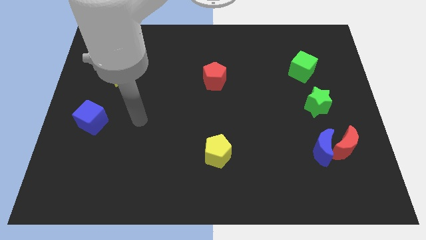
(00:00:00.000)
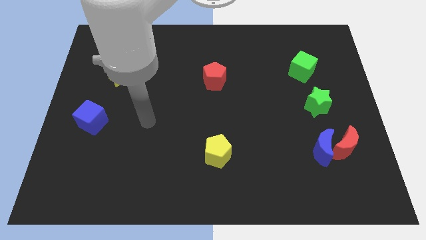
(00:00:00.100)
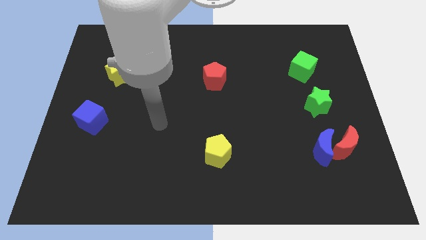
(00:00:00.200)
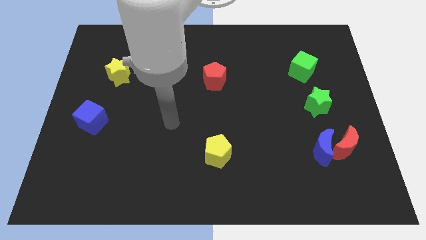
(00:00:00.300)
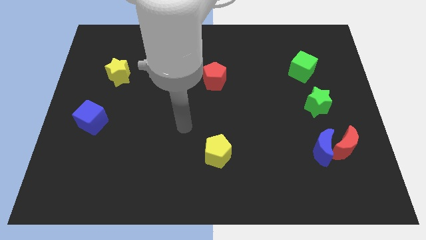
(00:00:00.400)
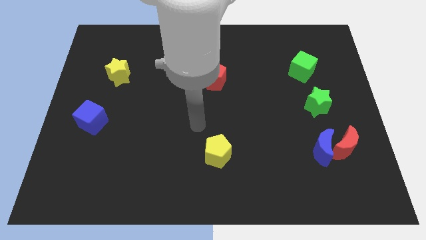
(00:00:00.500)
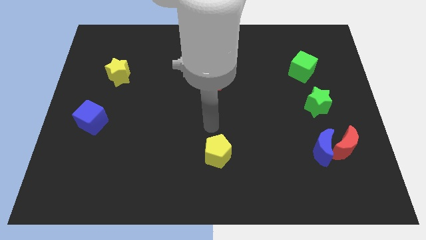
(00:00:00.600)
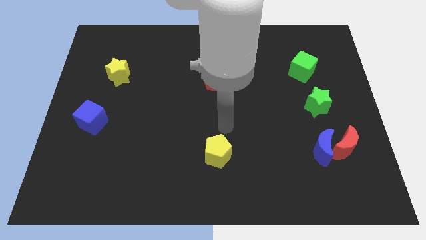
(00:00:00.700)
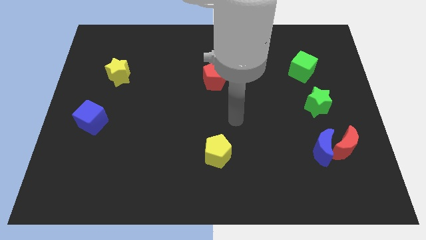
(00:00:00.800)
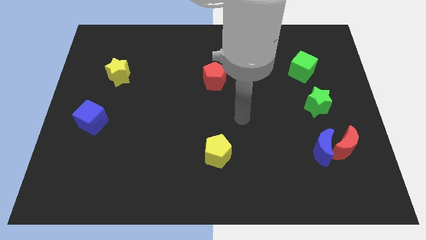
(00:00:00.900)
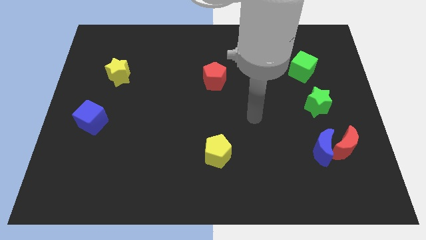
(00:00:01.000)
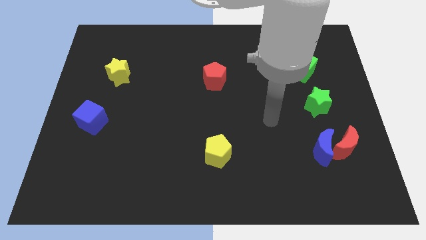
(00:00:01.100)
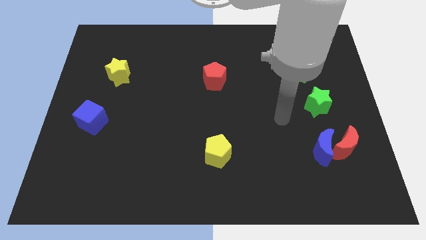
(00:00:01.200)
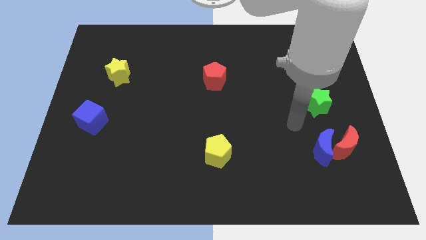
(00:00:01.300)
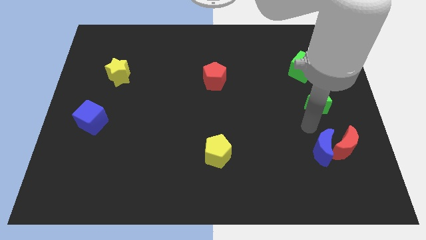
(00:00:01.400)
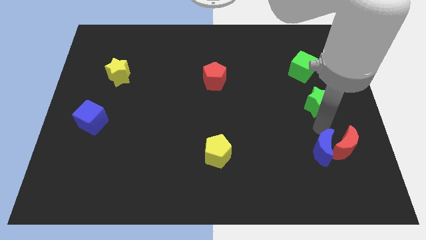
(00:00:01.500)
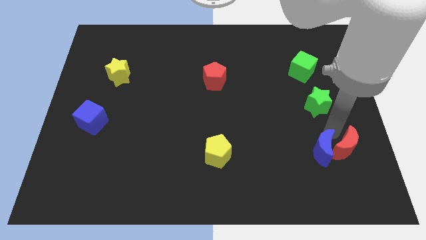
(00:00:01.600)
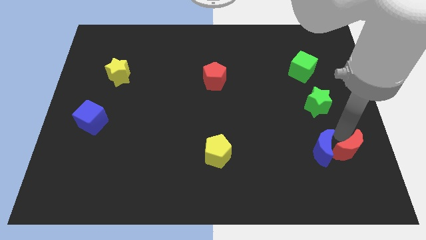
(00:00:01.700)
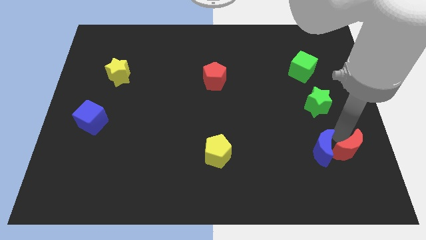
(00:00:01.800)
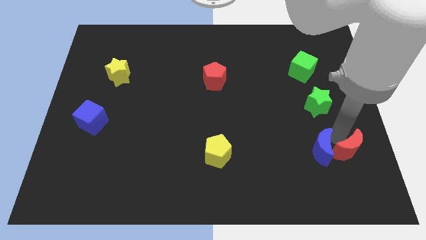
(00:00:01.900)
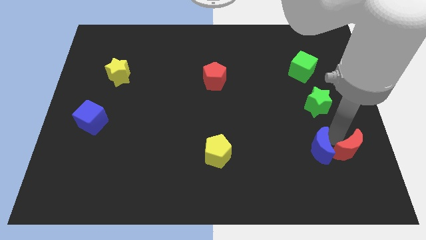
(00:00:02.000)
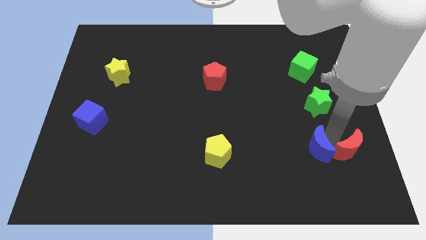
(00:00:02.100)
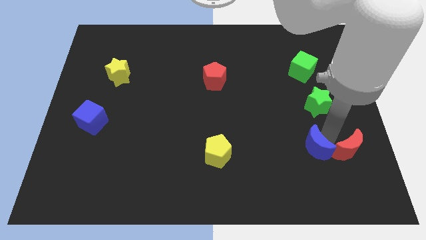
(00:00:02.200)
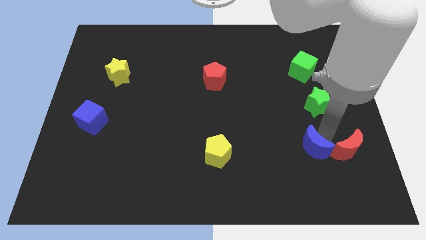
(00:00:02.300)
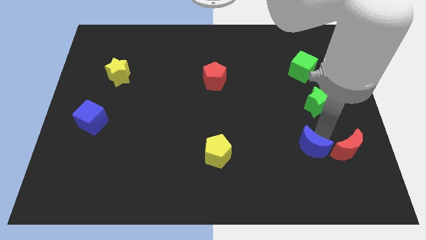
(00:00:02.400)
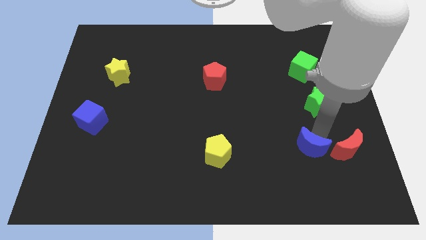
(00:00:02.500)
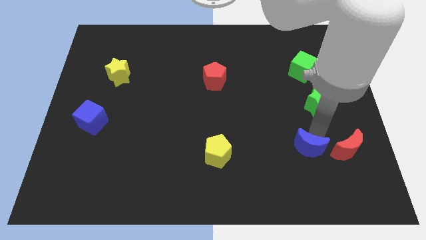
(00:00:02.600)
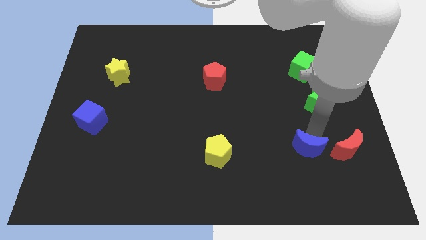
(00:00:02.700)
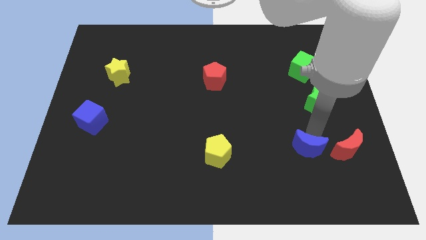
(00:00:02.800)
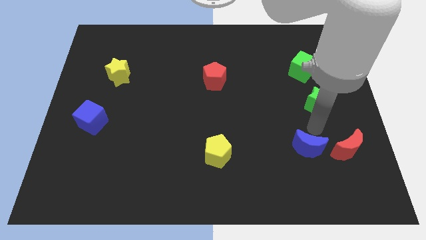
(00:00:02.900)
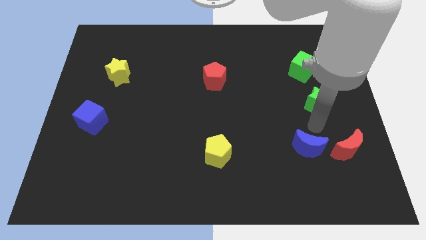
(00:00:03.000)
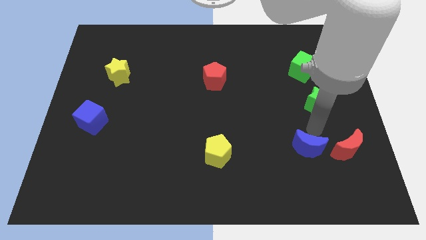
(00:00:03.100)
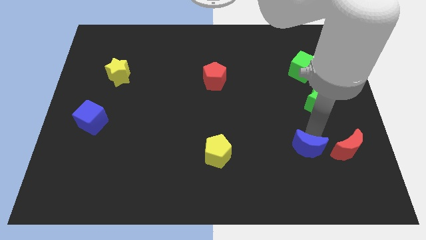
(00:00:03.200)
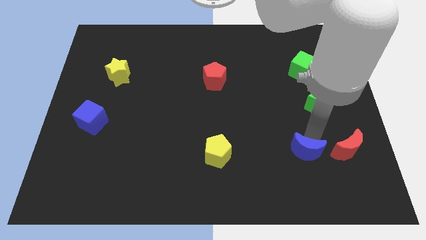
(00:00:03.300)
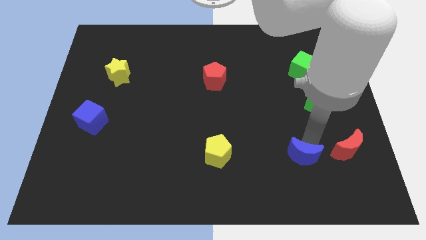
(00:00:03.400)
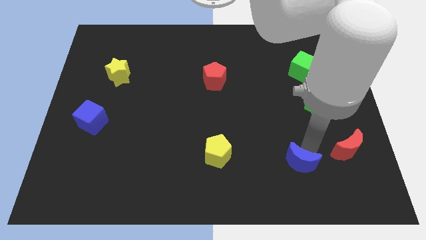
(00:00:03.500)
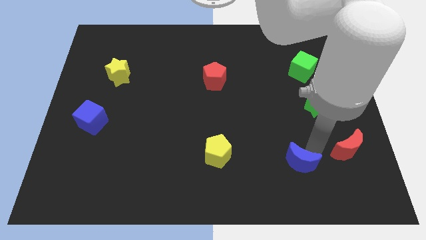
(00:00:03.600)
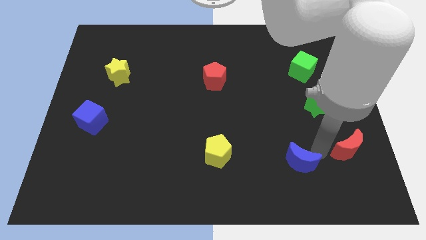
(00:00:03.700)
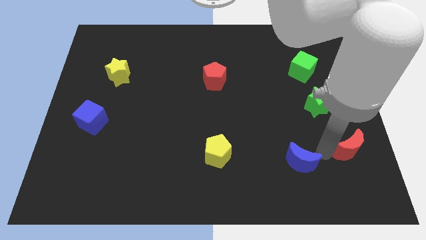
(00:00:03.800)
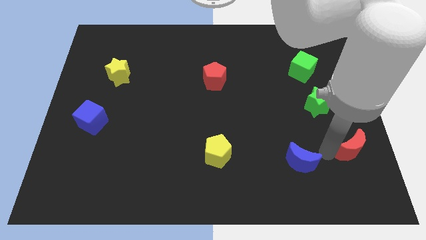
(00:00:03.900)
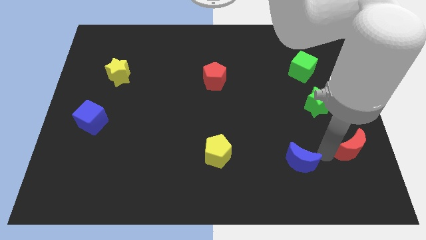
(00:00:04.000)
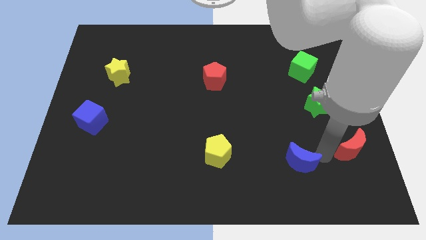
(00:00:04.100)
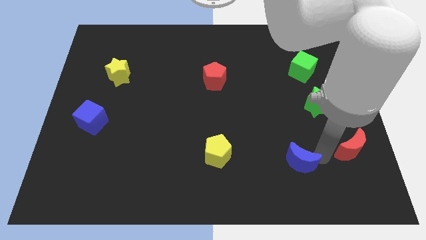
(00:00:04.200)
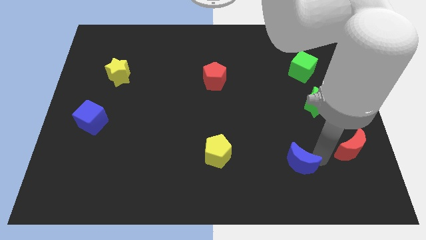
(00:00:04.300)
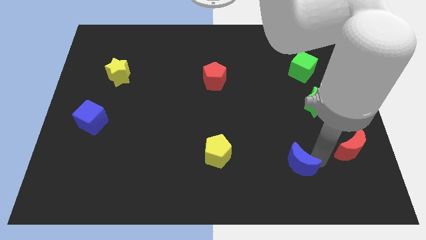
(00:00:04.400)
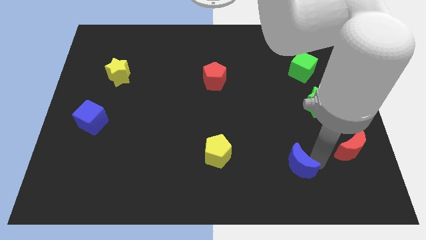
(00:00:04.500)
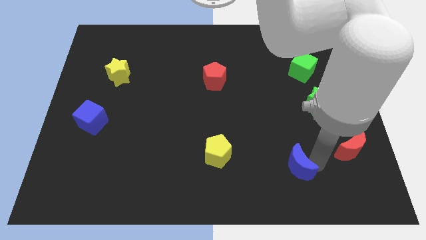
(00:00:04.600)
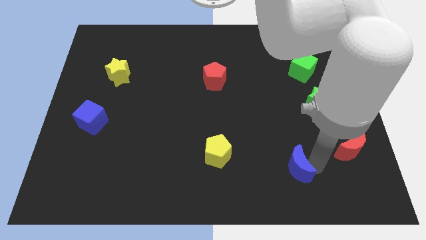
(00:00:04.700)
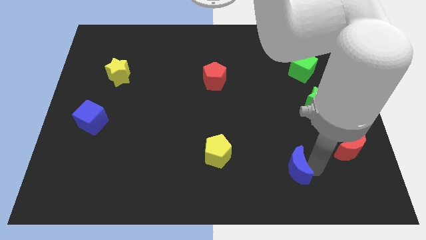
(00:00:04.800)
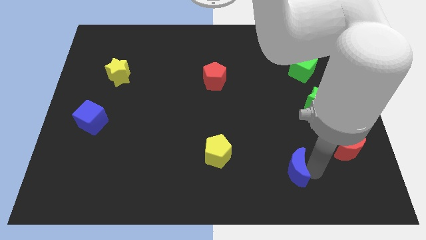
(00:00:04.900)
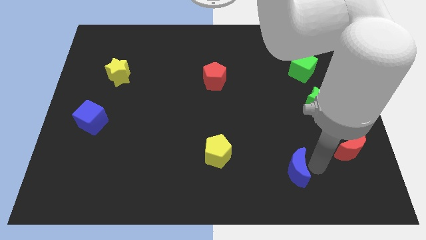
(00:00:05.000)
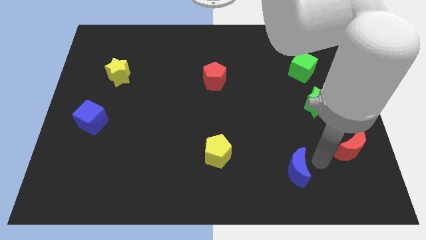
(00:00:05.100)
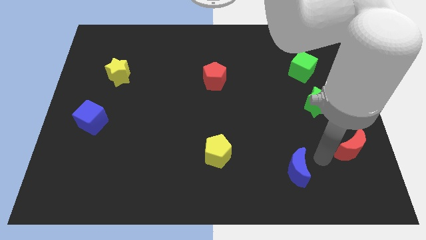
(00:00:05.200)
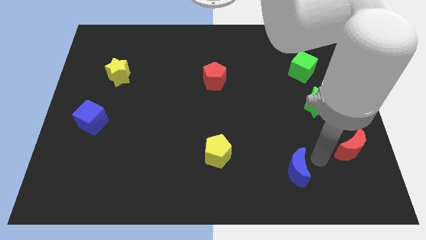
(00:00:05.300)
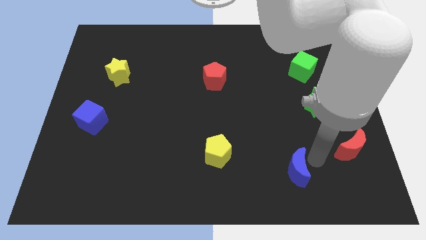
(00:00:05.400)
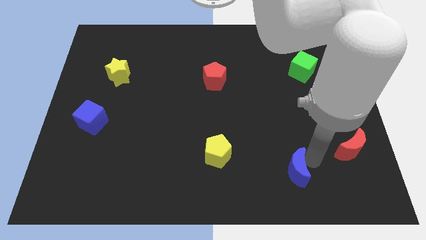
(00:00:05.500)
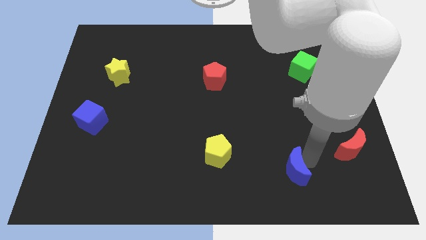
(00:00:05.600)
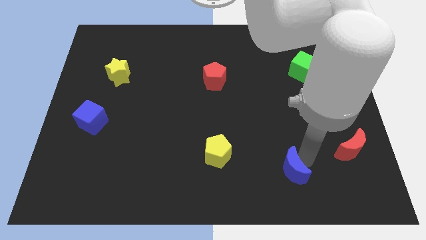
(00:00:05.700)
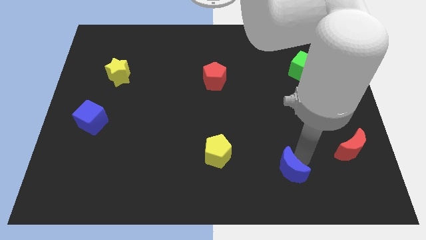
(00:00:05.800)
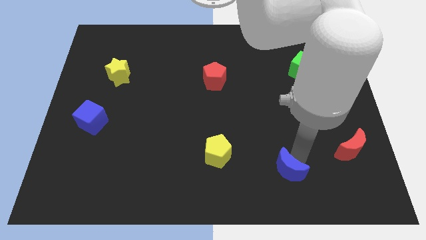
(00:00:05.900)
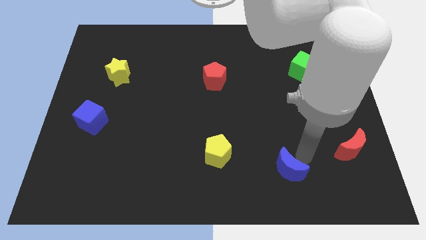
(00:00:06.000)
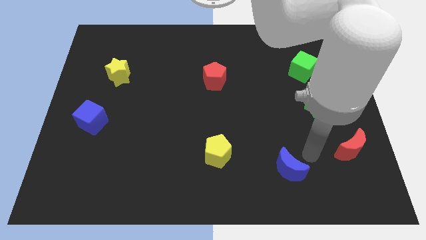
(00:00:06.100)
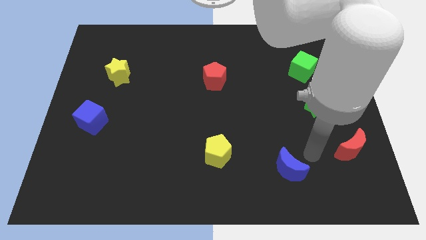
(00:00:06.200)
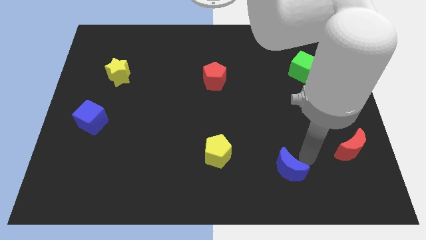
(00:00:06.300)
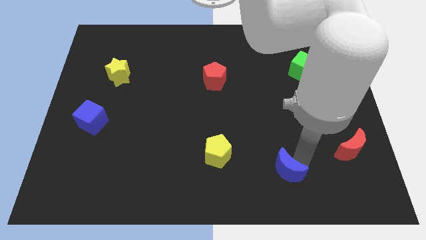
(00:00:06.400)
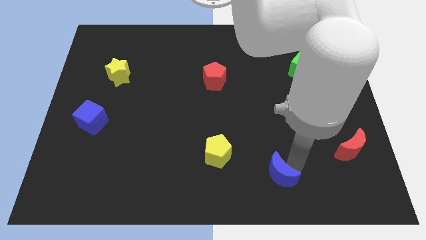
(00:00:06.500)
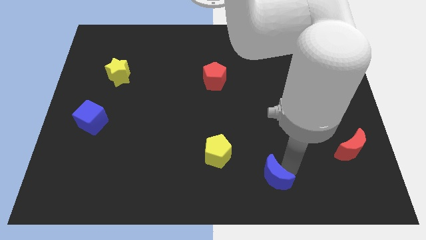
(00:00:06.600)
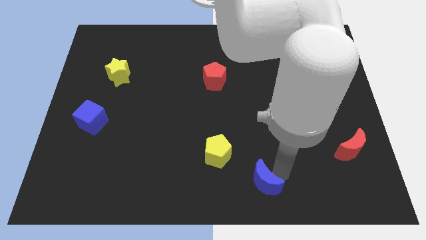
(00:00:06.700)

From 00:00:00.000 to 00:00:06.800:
slide the blue moon to the bottom side
